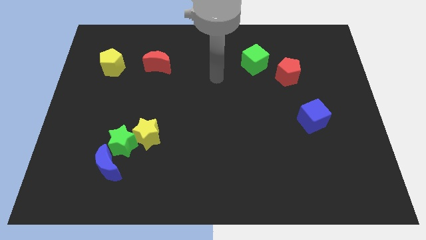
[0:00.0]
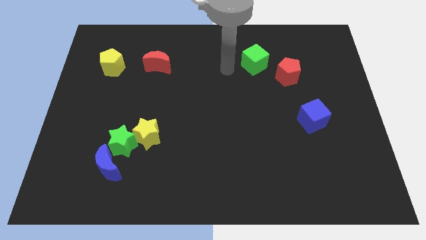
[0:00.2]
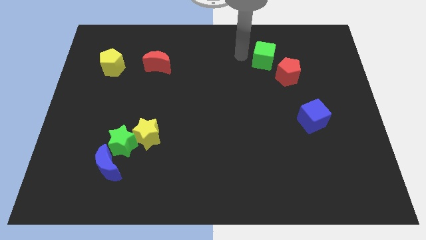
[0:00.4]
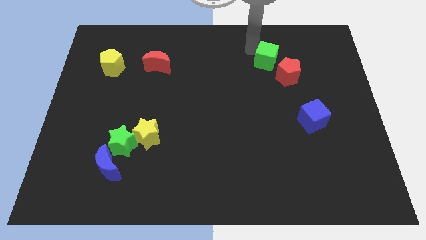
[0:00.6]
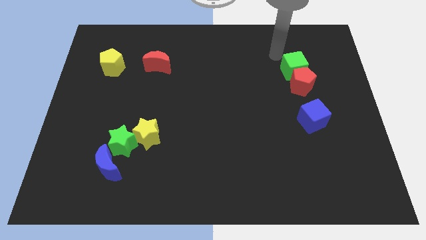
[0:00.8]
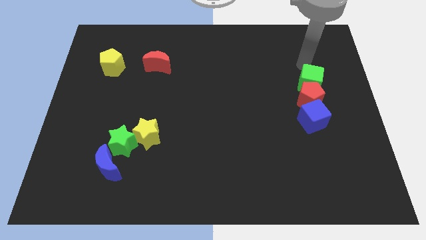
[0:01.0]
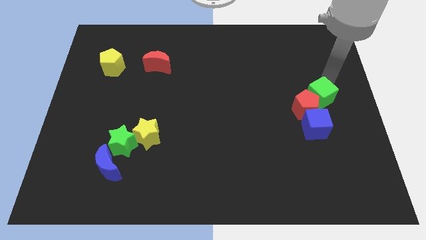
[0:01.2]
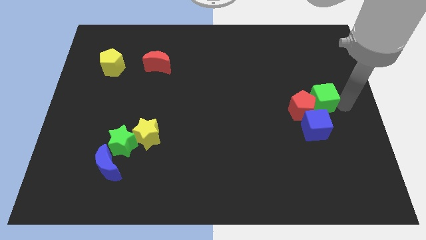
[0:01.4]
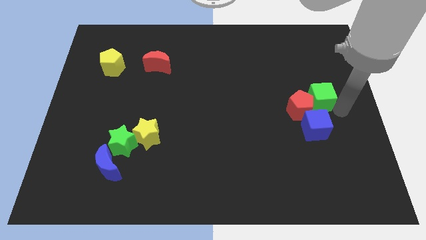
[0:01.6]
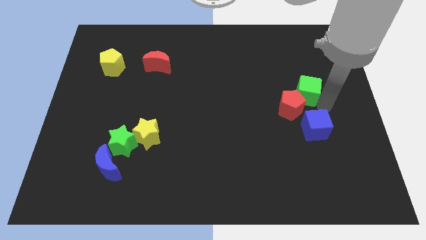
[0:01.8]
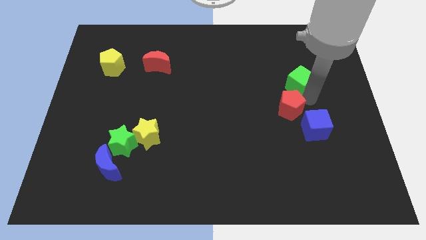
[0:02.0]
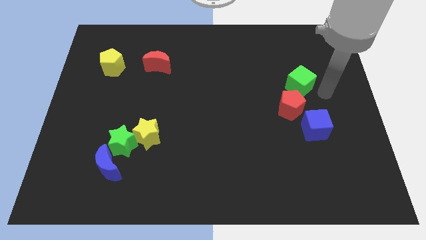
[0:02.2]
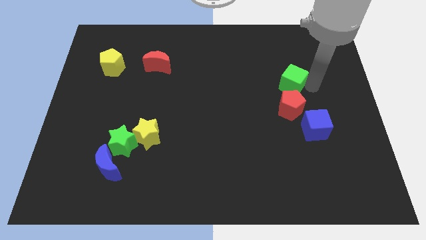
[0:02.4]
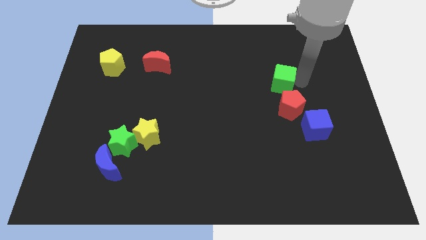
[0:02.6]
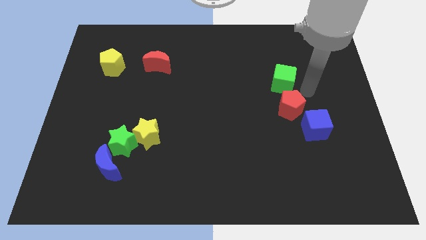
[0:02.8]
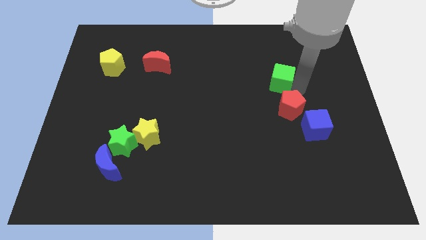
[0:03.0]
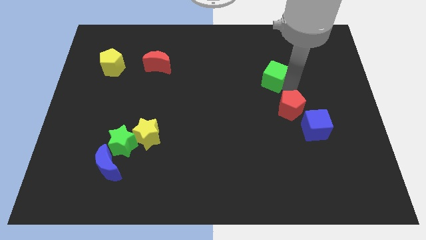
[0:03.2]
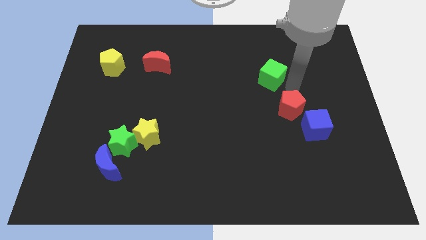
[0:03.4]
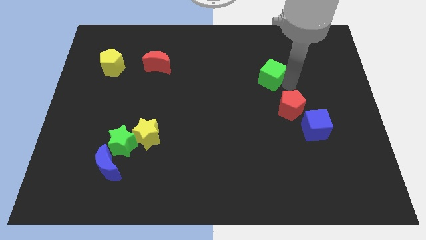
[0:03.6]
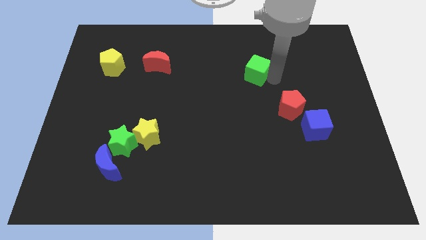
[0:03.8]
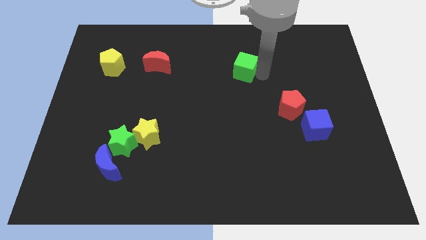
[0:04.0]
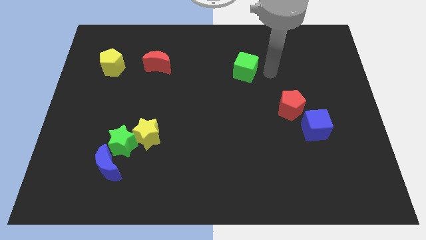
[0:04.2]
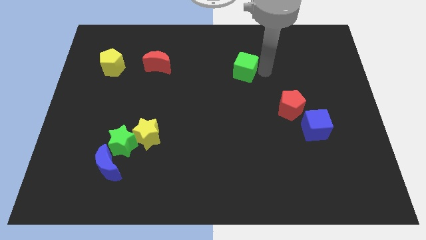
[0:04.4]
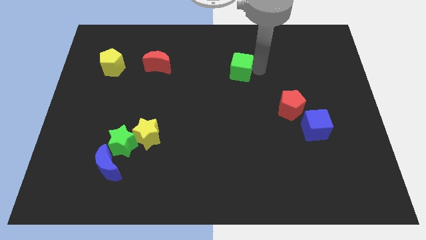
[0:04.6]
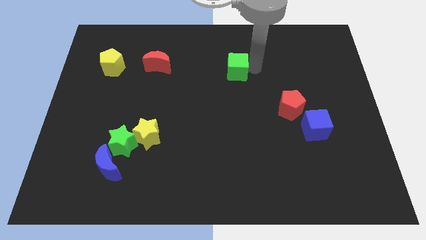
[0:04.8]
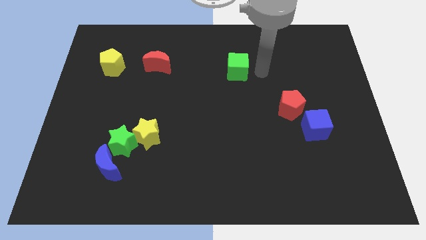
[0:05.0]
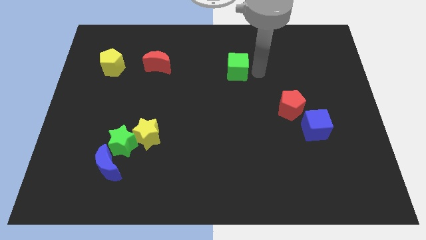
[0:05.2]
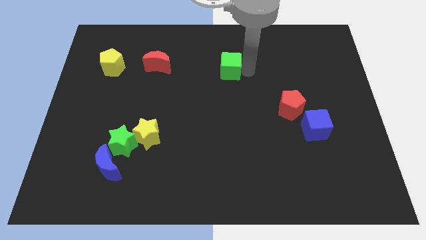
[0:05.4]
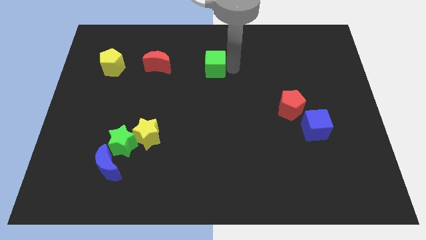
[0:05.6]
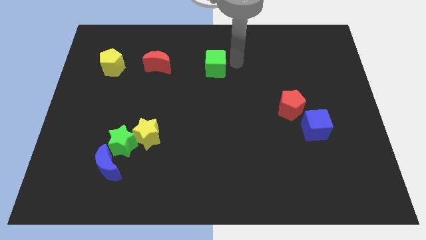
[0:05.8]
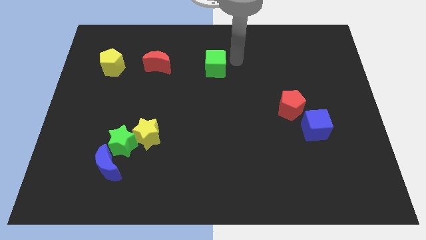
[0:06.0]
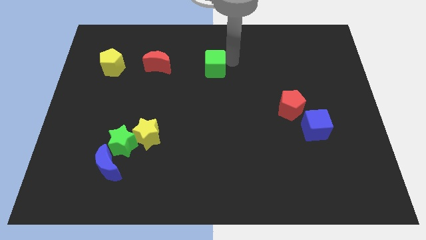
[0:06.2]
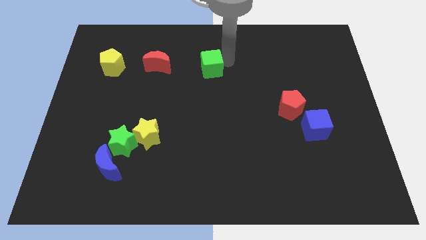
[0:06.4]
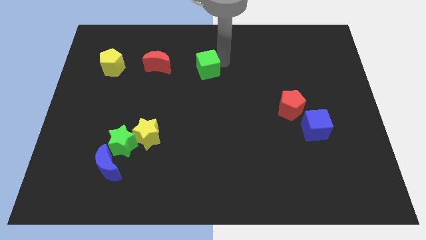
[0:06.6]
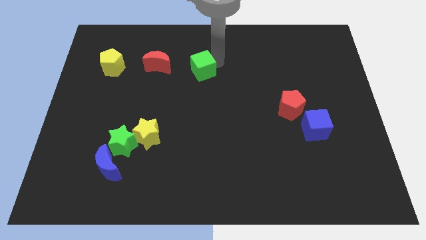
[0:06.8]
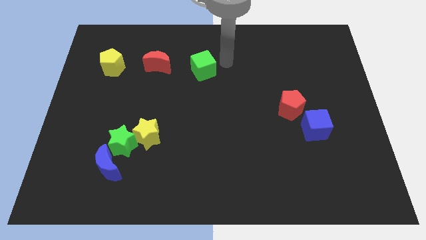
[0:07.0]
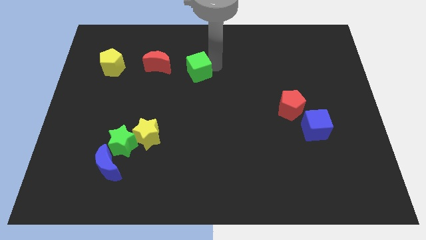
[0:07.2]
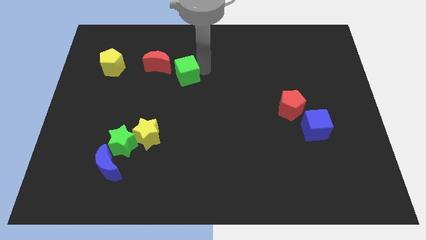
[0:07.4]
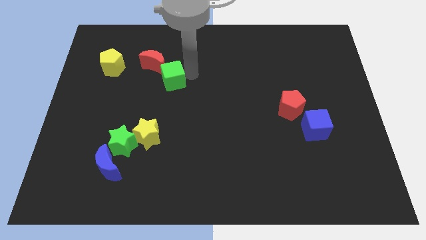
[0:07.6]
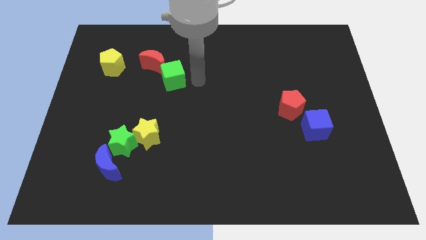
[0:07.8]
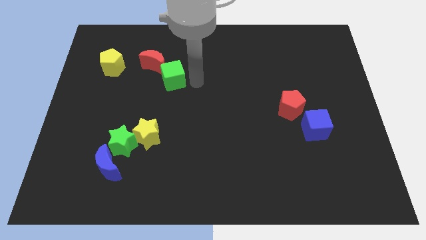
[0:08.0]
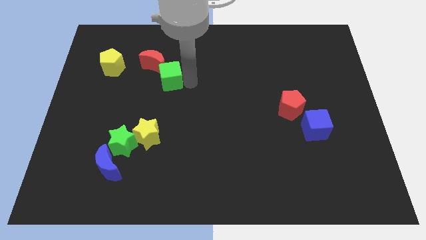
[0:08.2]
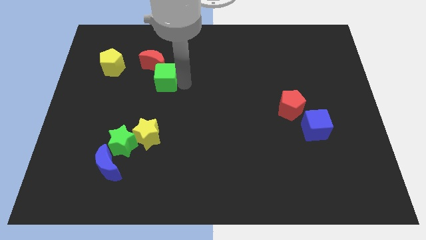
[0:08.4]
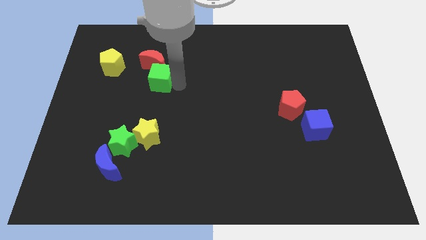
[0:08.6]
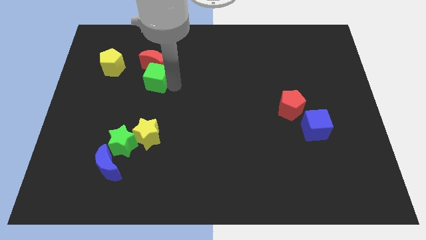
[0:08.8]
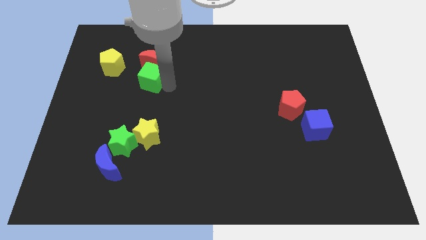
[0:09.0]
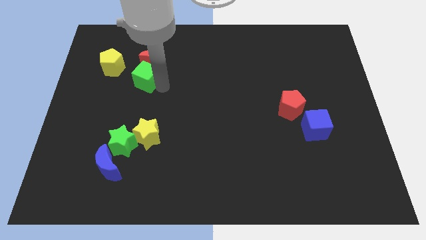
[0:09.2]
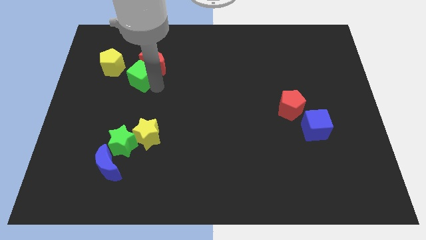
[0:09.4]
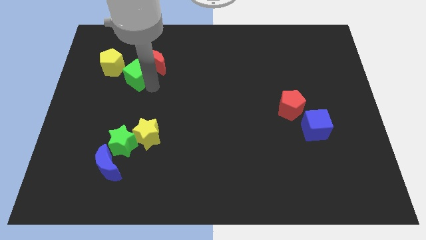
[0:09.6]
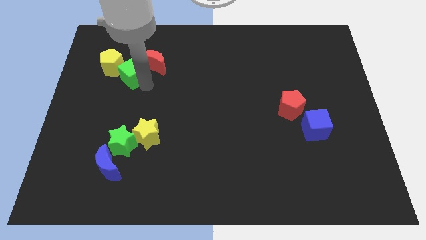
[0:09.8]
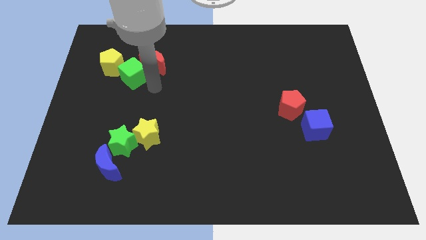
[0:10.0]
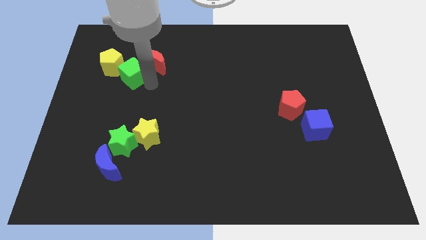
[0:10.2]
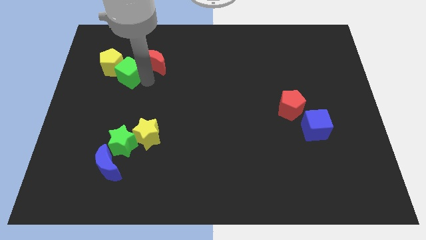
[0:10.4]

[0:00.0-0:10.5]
push the green cube towards the yellow pentagon

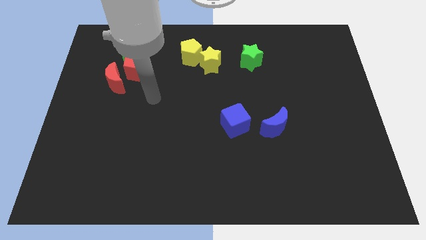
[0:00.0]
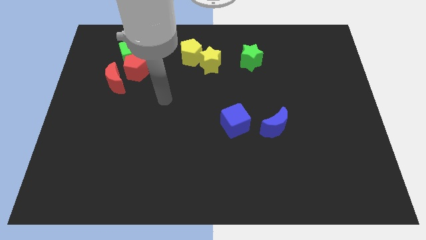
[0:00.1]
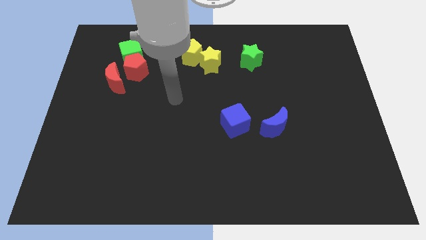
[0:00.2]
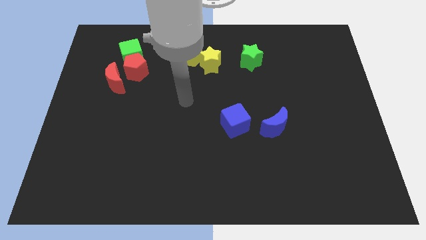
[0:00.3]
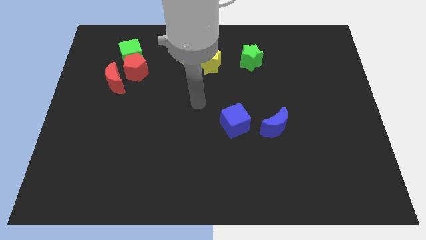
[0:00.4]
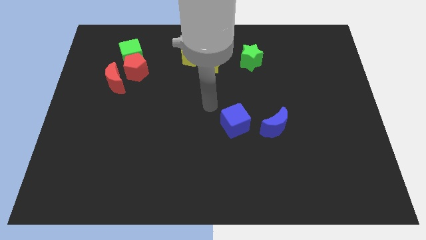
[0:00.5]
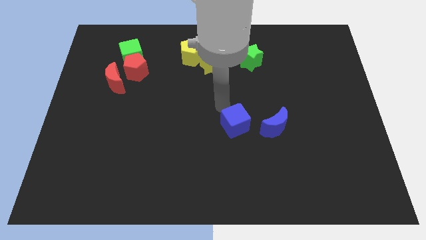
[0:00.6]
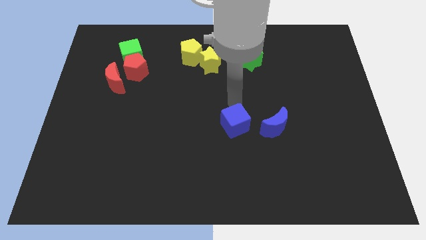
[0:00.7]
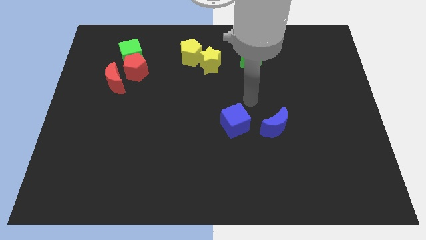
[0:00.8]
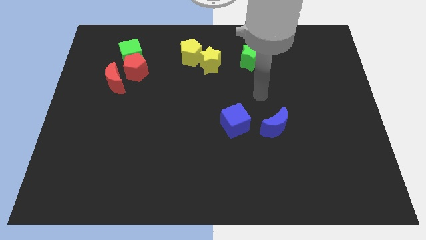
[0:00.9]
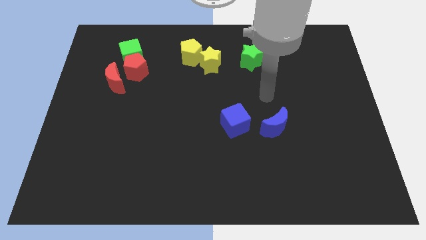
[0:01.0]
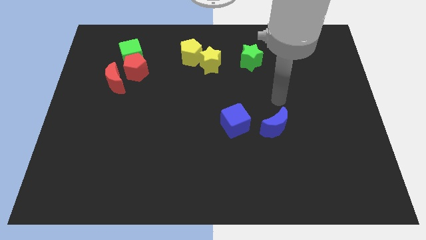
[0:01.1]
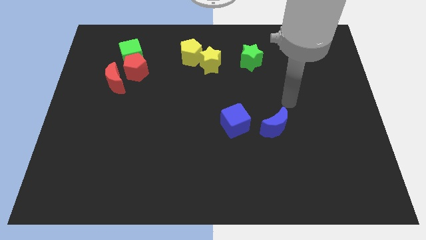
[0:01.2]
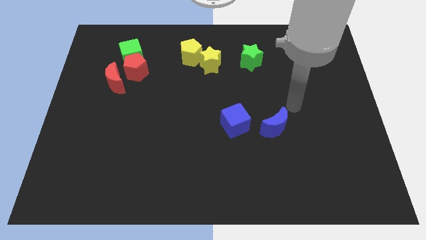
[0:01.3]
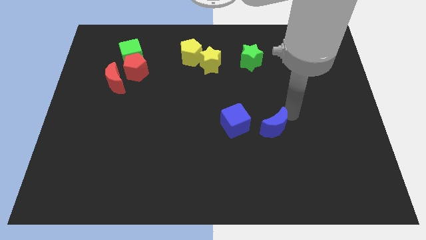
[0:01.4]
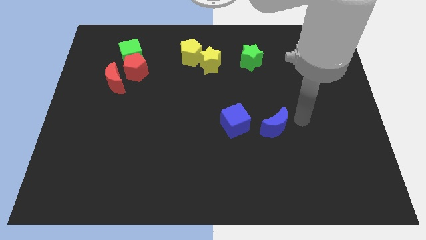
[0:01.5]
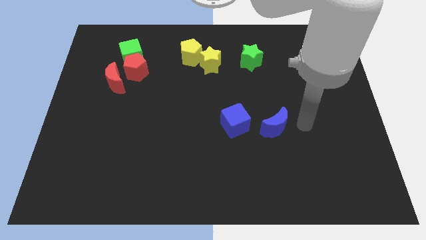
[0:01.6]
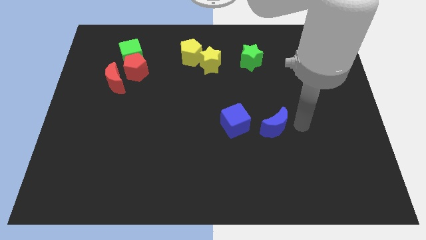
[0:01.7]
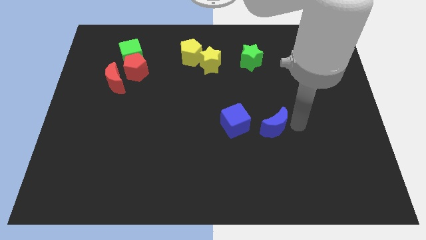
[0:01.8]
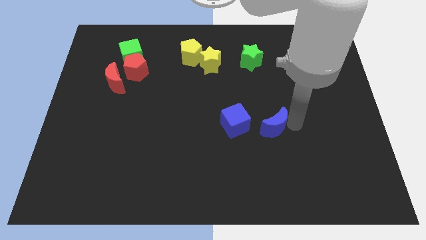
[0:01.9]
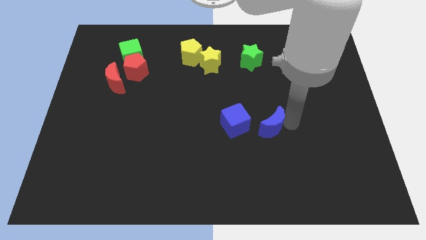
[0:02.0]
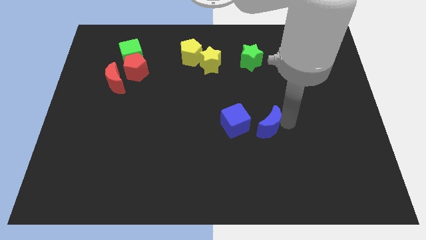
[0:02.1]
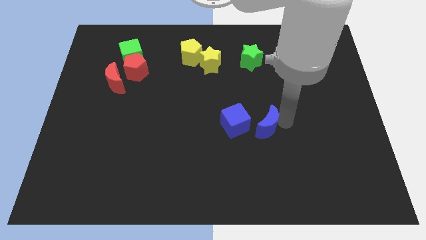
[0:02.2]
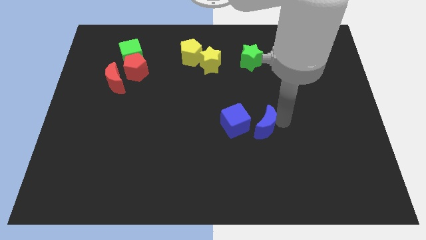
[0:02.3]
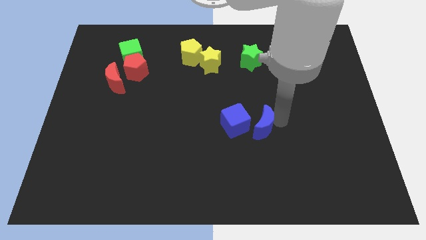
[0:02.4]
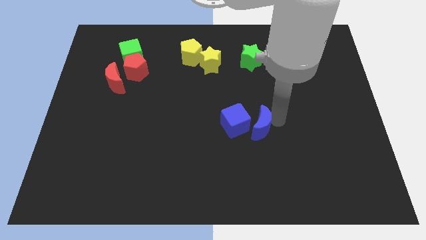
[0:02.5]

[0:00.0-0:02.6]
slide the blue moon close to the blue cube
